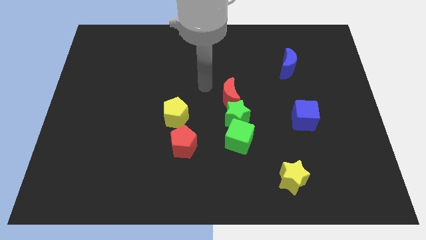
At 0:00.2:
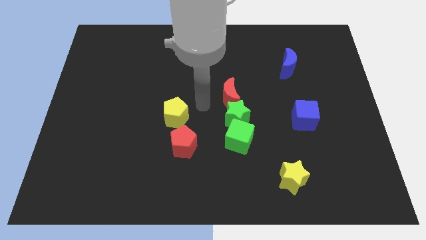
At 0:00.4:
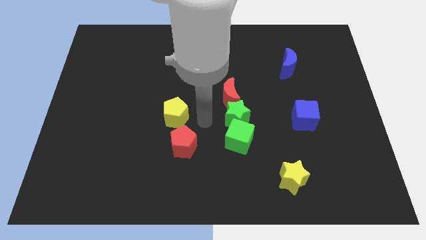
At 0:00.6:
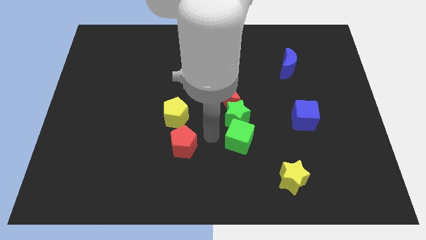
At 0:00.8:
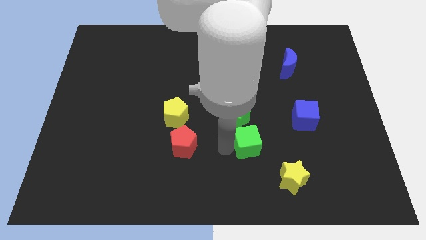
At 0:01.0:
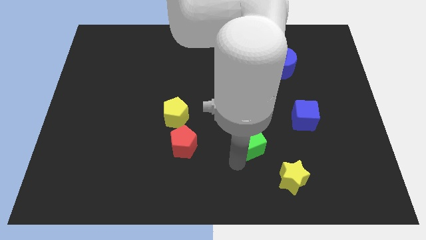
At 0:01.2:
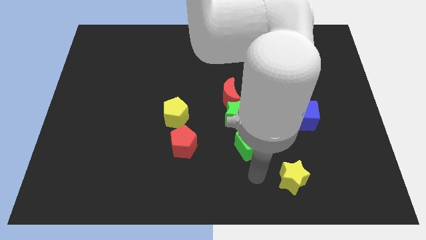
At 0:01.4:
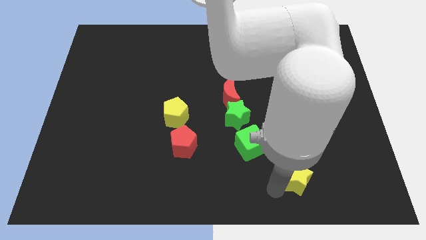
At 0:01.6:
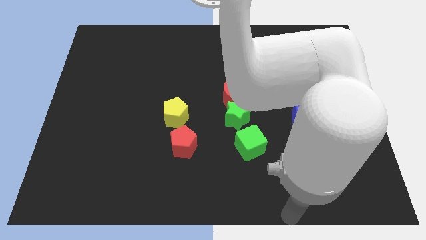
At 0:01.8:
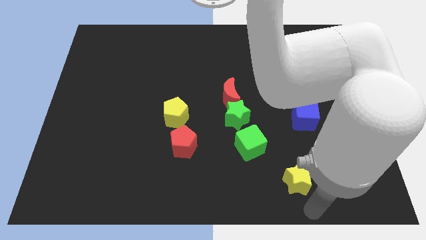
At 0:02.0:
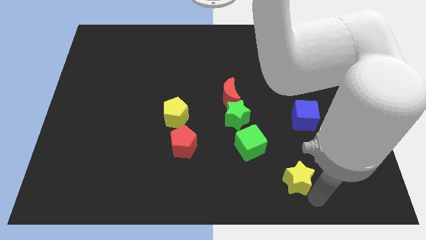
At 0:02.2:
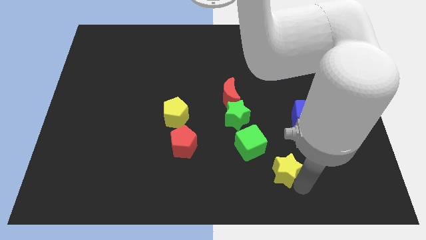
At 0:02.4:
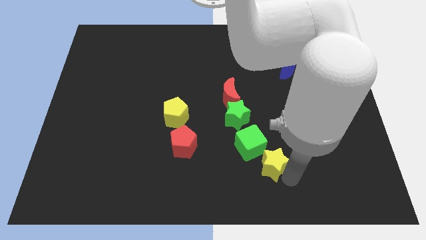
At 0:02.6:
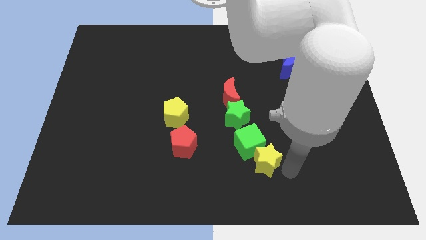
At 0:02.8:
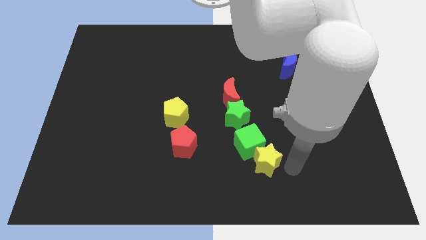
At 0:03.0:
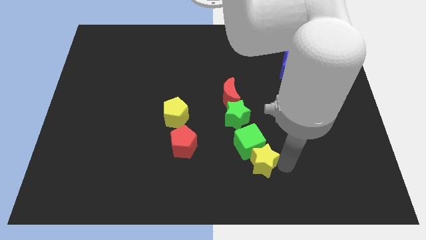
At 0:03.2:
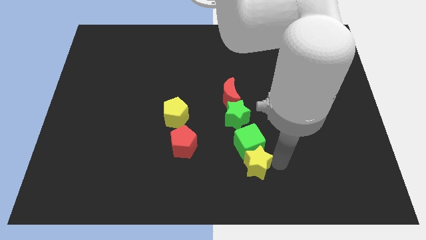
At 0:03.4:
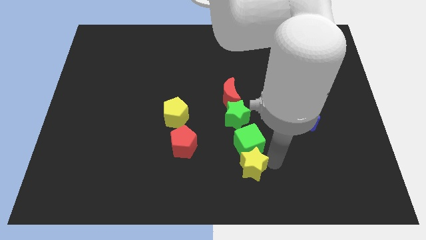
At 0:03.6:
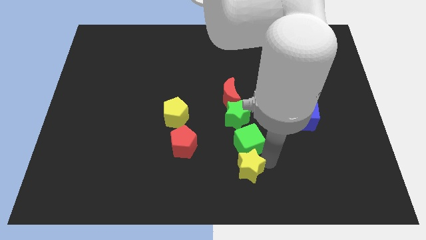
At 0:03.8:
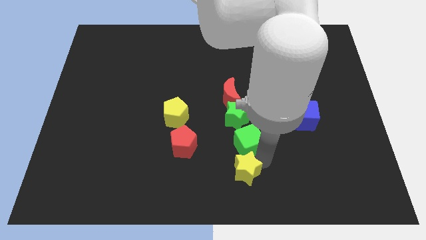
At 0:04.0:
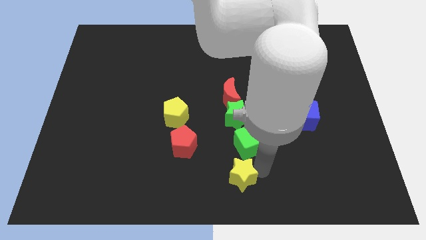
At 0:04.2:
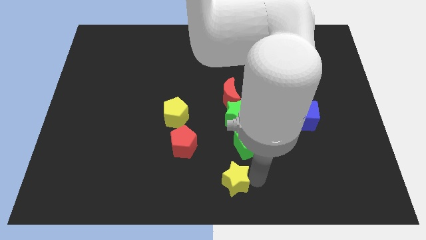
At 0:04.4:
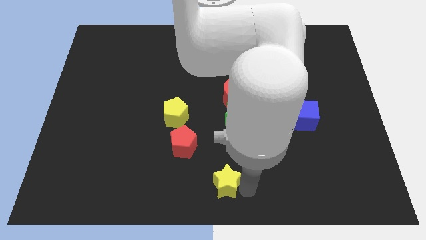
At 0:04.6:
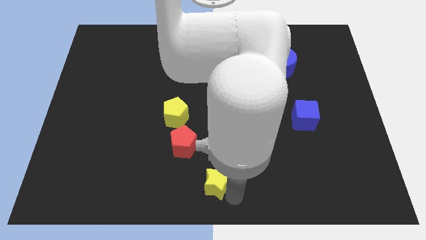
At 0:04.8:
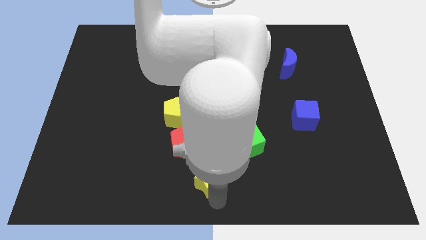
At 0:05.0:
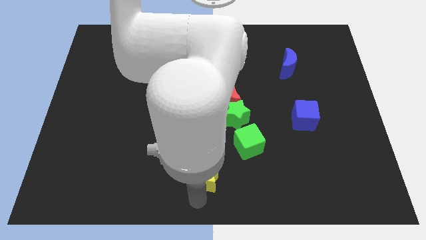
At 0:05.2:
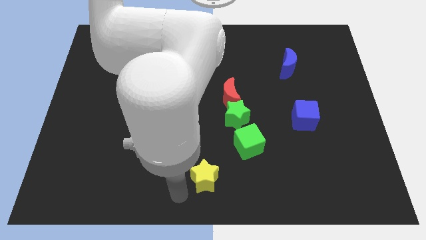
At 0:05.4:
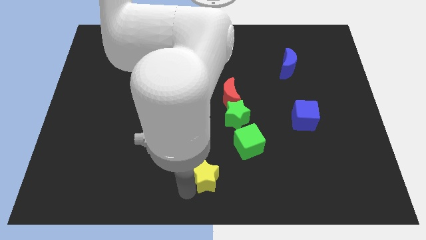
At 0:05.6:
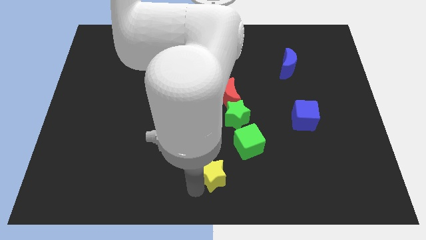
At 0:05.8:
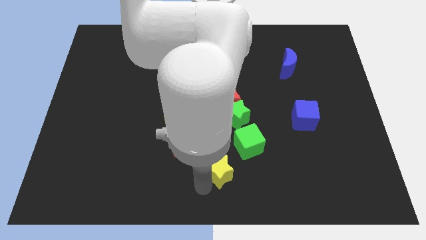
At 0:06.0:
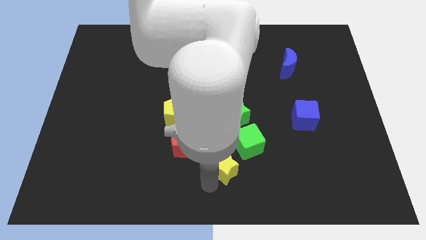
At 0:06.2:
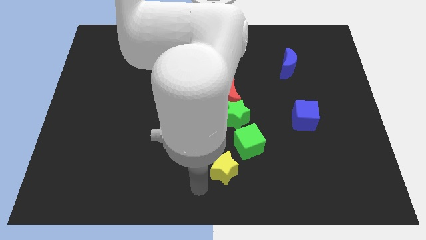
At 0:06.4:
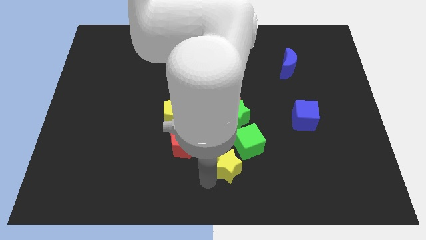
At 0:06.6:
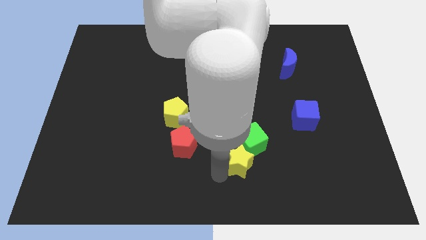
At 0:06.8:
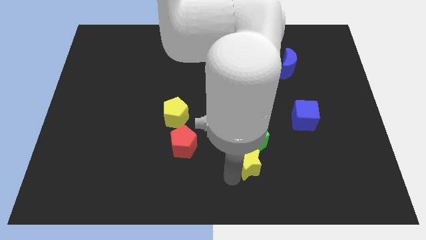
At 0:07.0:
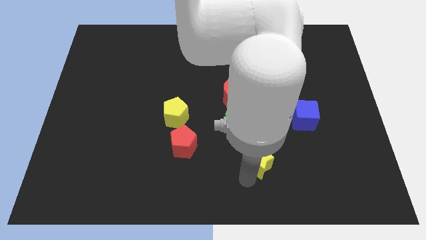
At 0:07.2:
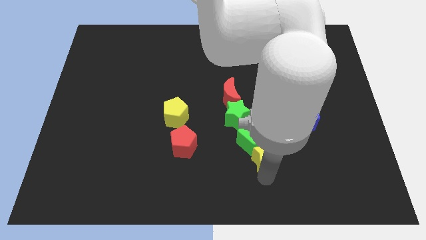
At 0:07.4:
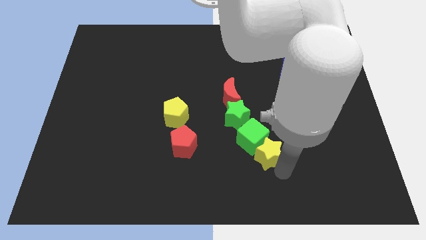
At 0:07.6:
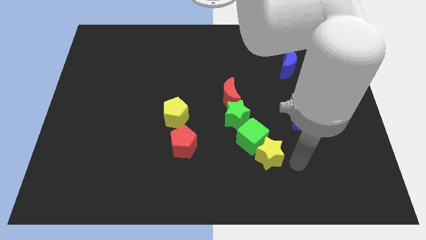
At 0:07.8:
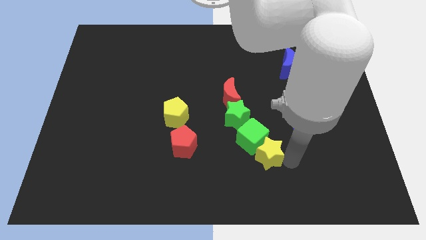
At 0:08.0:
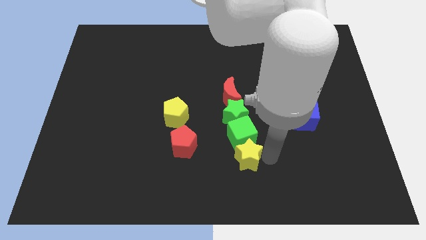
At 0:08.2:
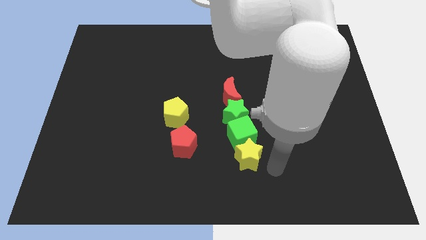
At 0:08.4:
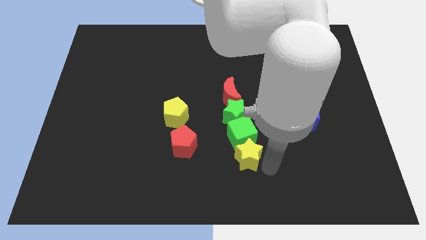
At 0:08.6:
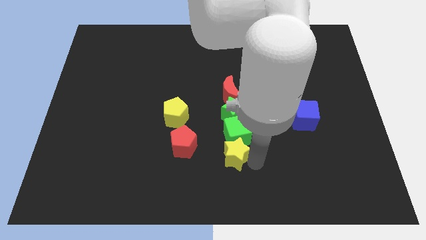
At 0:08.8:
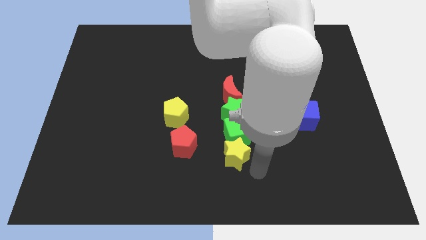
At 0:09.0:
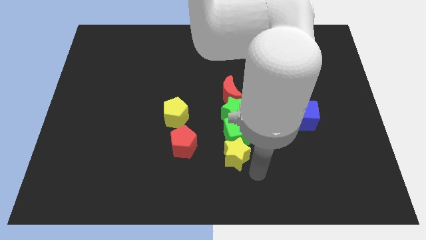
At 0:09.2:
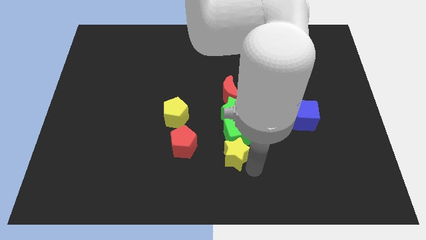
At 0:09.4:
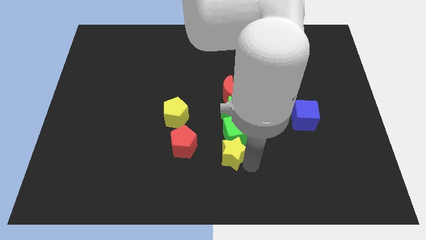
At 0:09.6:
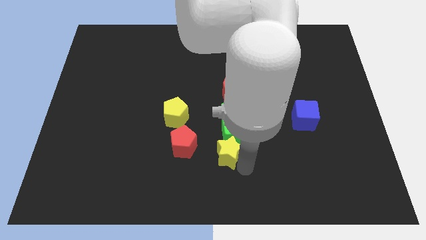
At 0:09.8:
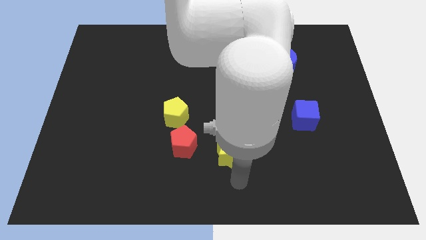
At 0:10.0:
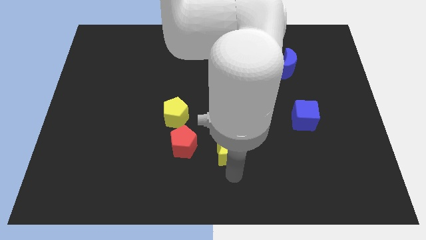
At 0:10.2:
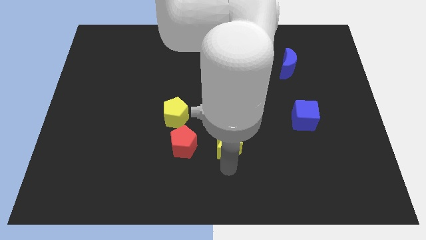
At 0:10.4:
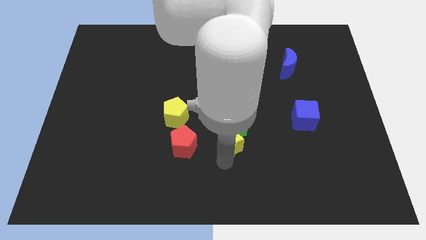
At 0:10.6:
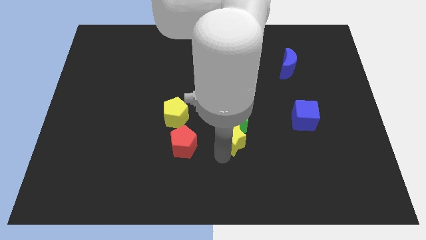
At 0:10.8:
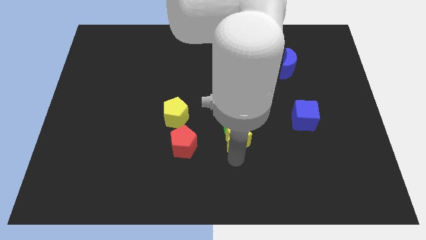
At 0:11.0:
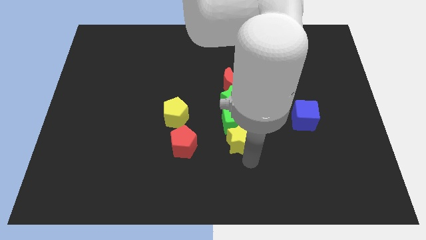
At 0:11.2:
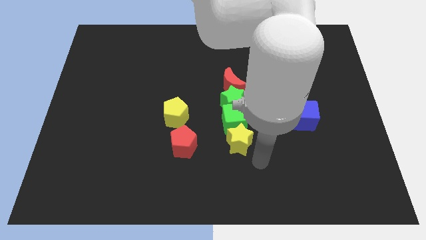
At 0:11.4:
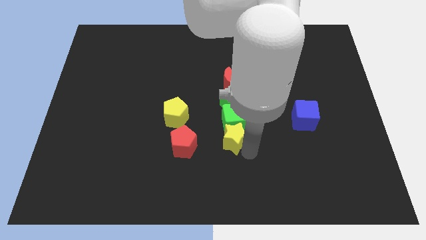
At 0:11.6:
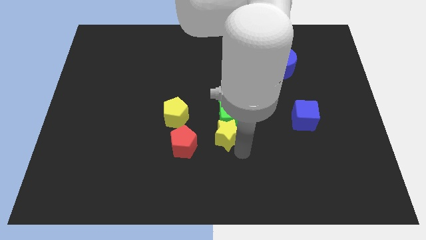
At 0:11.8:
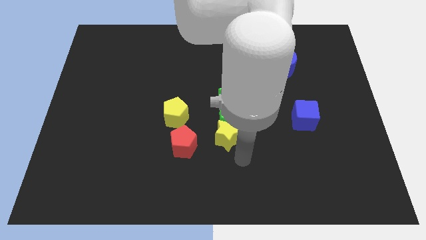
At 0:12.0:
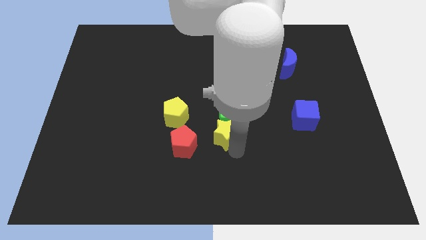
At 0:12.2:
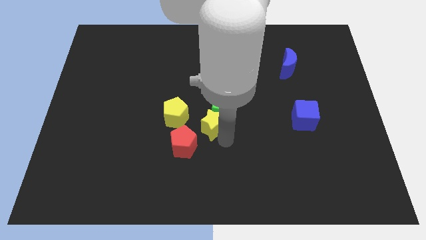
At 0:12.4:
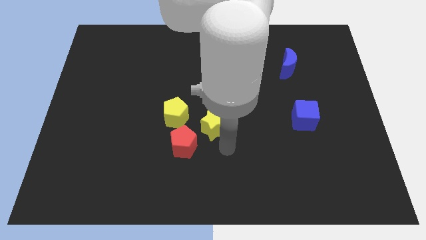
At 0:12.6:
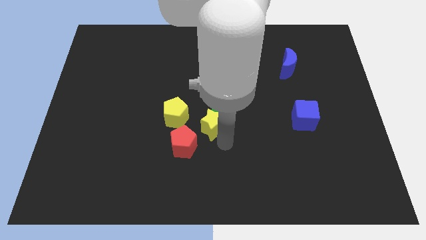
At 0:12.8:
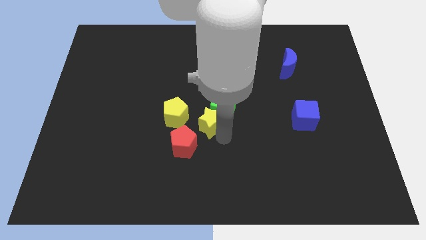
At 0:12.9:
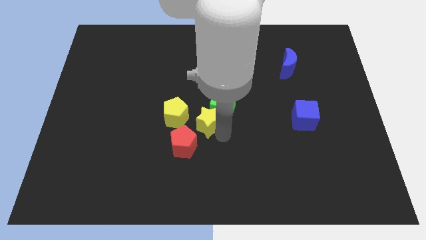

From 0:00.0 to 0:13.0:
put the yellow star to the top side of the red pentagon

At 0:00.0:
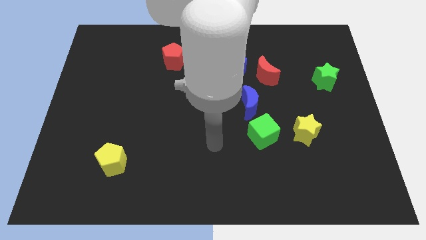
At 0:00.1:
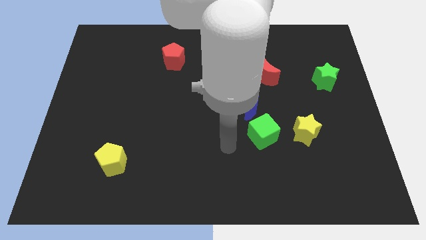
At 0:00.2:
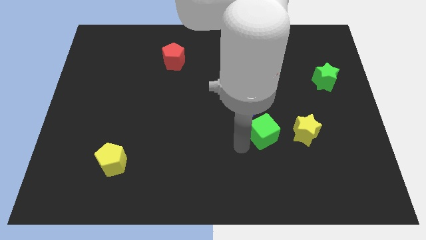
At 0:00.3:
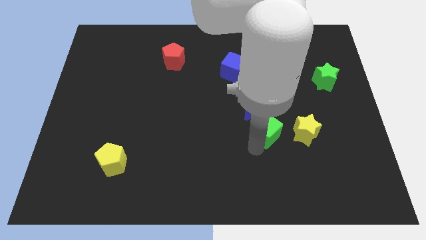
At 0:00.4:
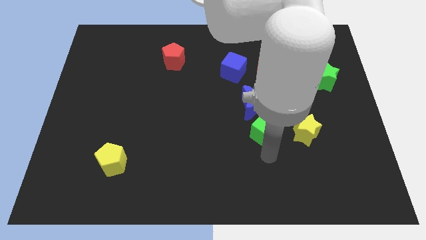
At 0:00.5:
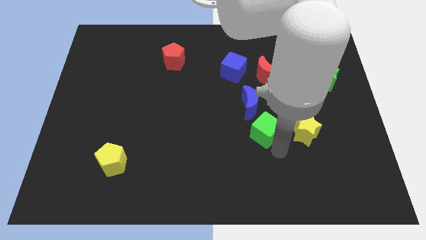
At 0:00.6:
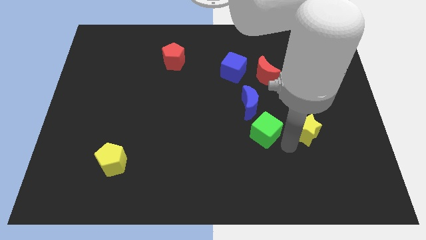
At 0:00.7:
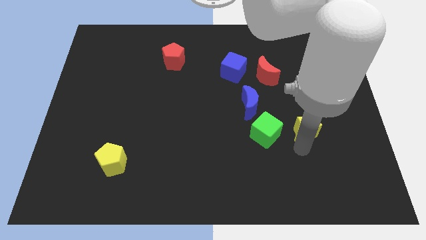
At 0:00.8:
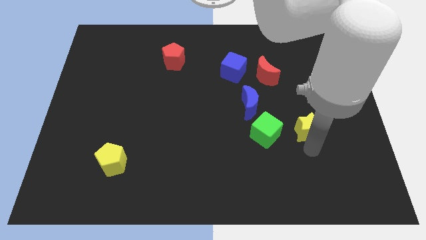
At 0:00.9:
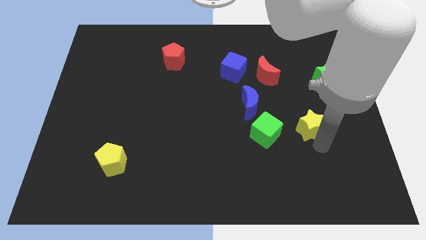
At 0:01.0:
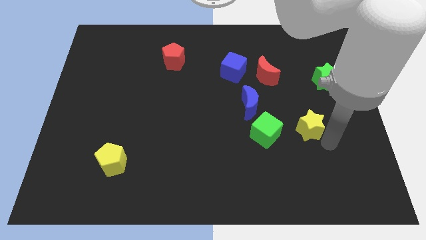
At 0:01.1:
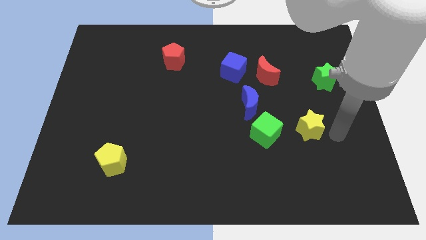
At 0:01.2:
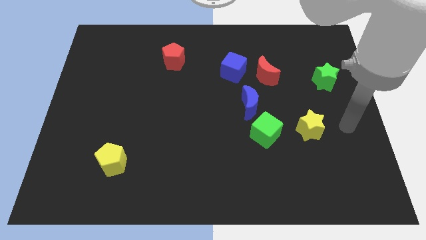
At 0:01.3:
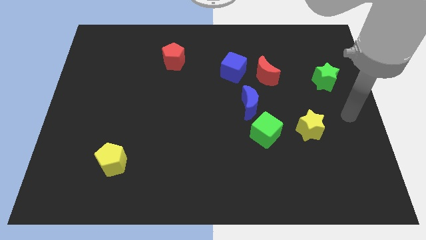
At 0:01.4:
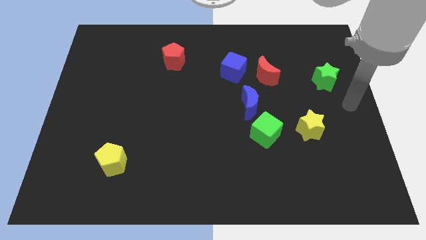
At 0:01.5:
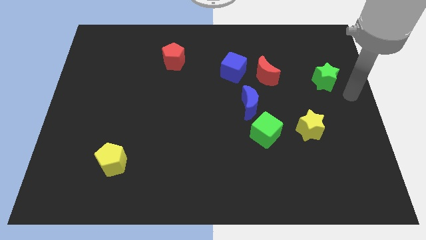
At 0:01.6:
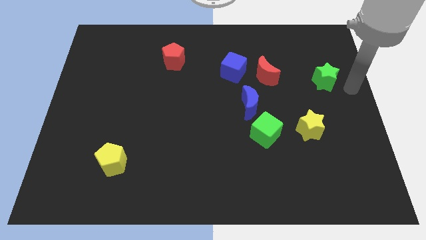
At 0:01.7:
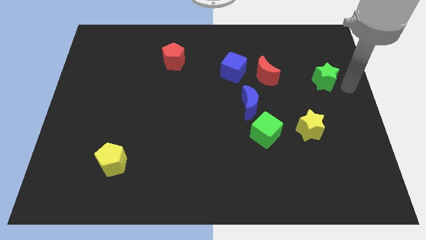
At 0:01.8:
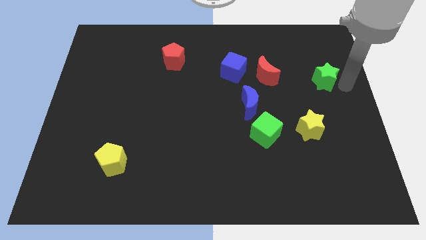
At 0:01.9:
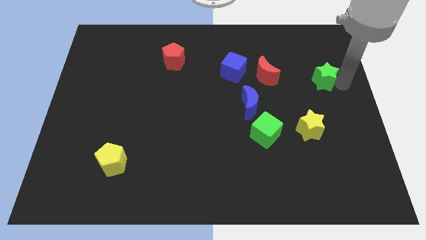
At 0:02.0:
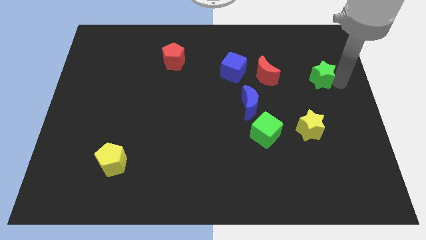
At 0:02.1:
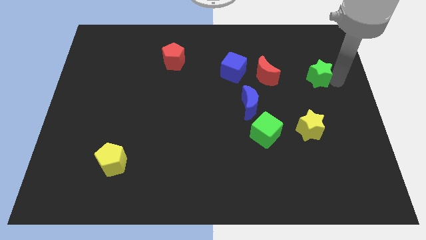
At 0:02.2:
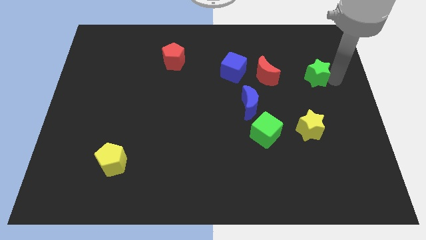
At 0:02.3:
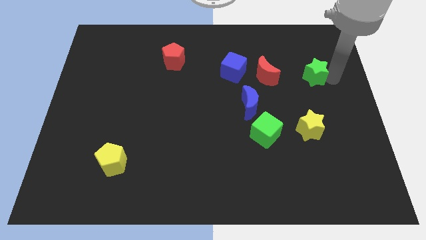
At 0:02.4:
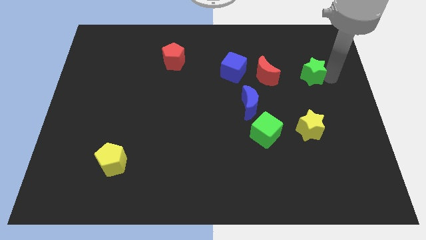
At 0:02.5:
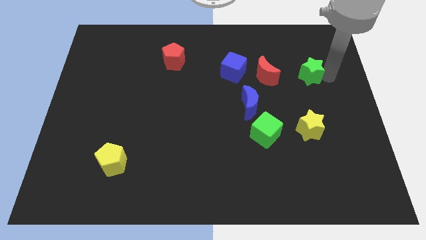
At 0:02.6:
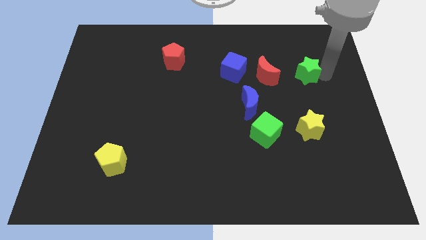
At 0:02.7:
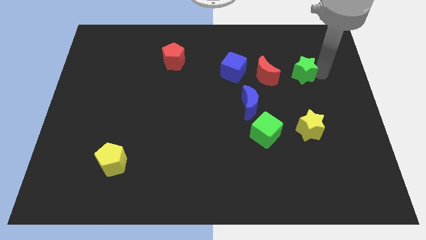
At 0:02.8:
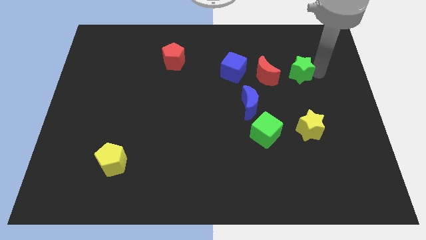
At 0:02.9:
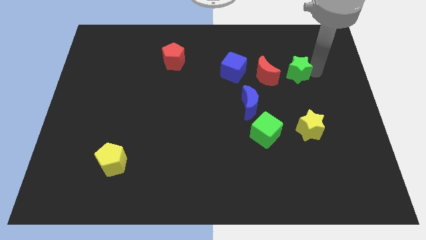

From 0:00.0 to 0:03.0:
slide the green star to the right of the blue cube
